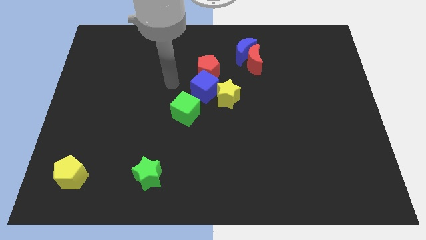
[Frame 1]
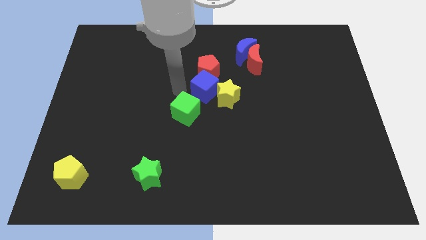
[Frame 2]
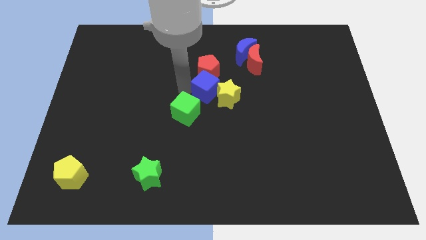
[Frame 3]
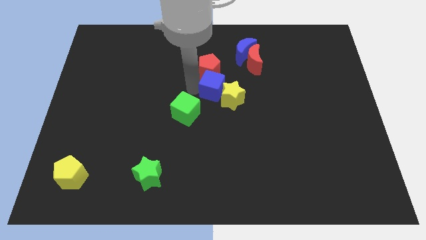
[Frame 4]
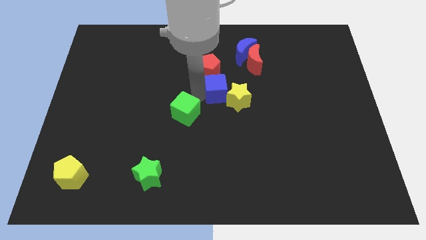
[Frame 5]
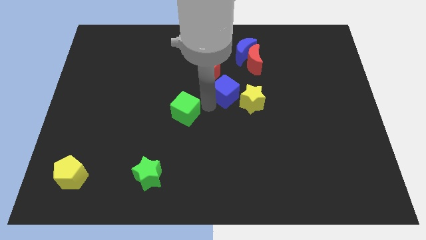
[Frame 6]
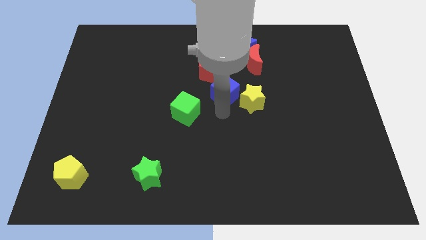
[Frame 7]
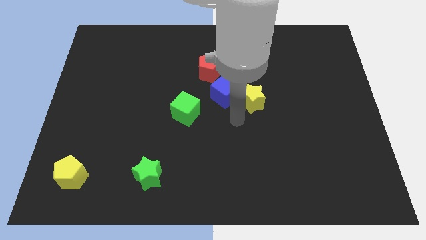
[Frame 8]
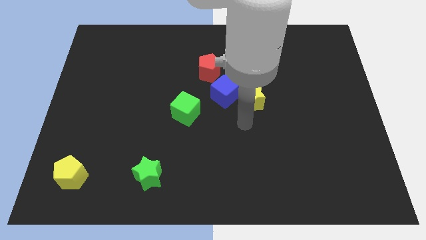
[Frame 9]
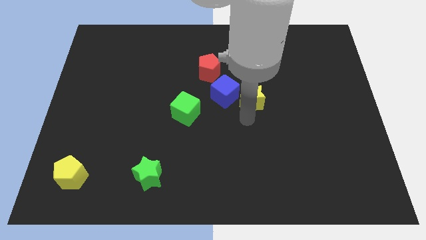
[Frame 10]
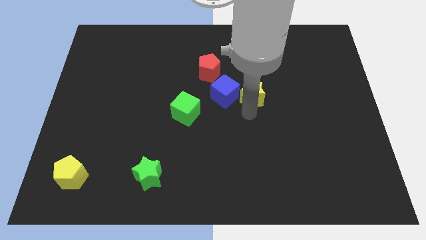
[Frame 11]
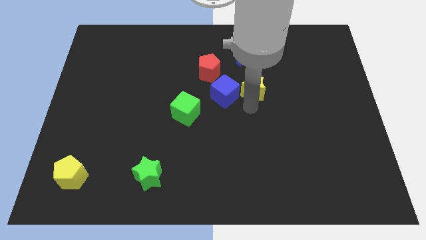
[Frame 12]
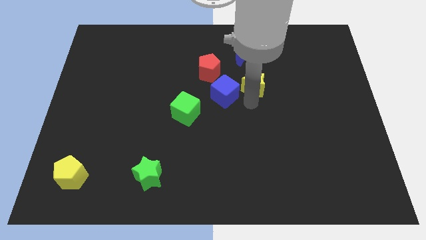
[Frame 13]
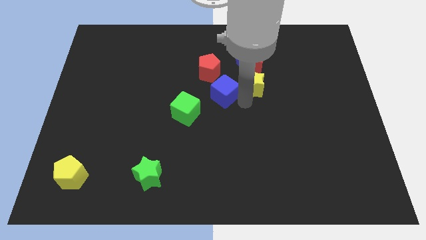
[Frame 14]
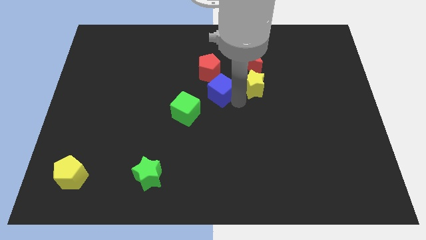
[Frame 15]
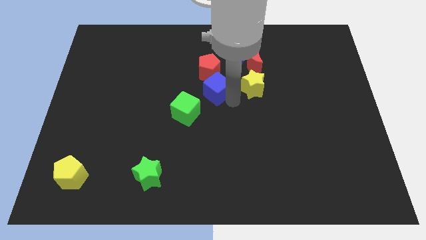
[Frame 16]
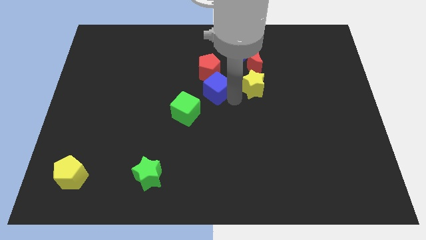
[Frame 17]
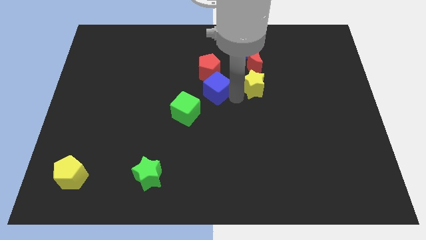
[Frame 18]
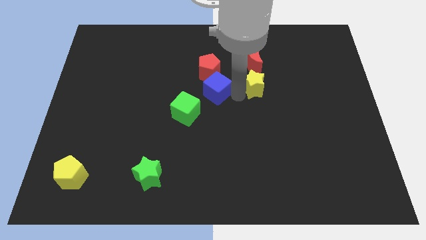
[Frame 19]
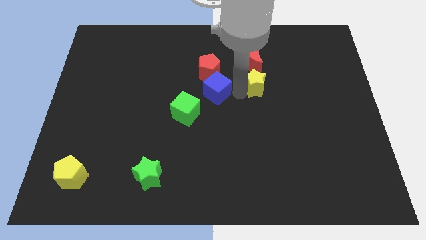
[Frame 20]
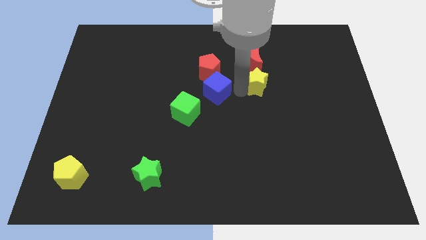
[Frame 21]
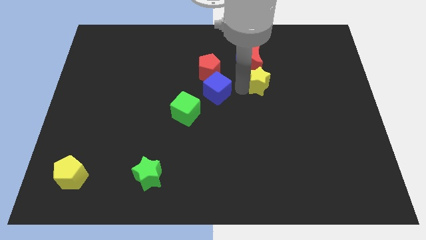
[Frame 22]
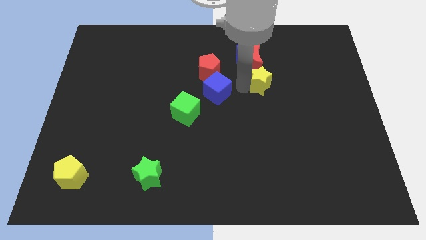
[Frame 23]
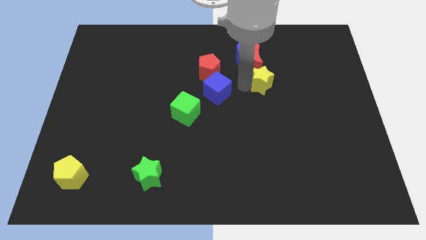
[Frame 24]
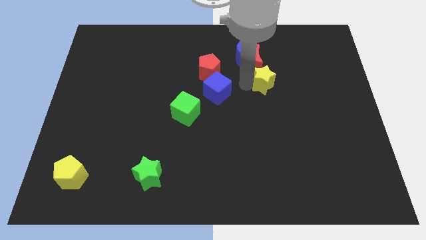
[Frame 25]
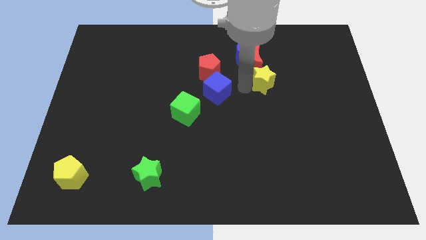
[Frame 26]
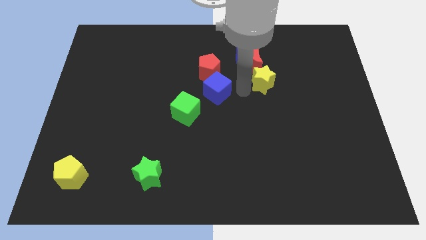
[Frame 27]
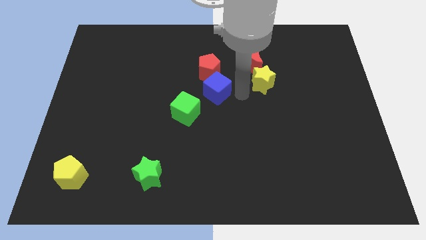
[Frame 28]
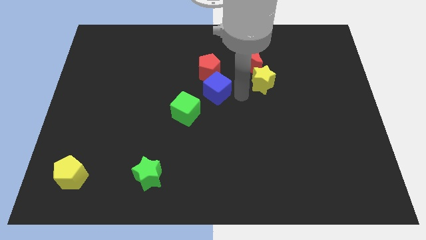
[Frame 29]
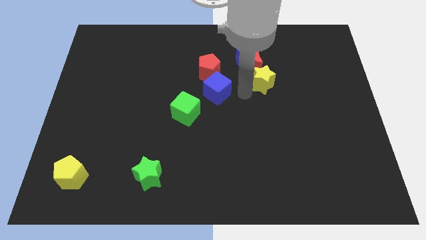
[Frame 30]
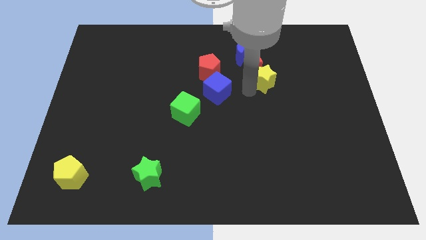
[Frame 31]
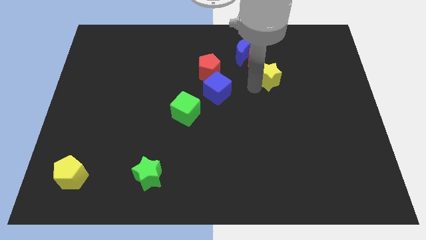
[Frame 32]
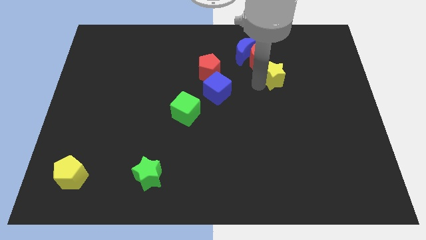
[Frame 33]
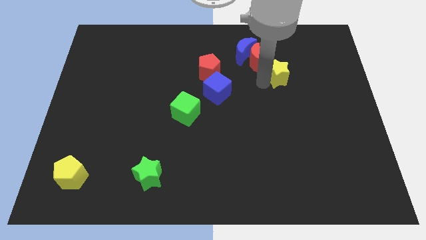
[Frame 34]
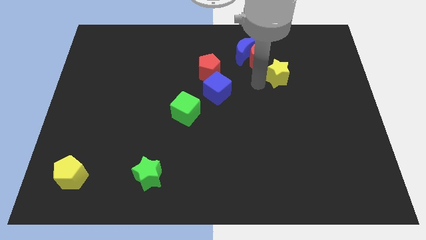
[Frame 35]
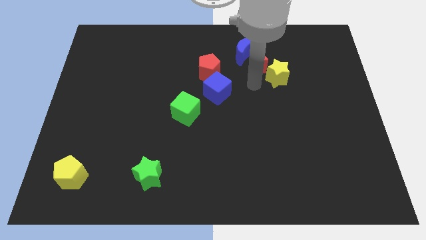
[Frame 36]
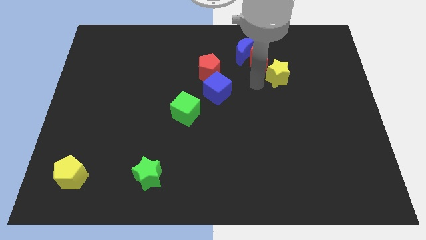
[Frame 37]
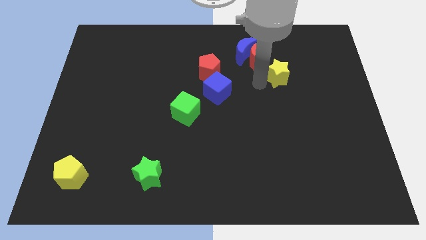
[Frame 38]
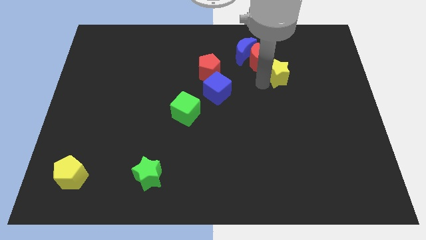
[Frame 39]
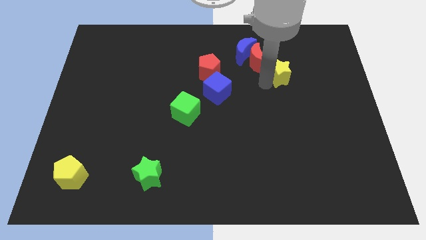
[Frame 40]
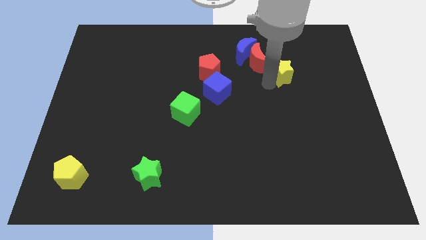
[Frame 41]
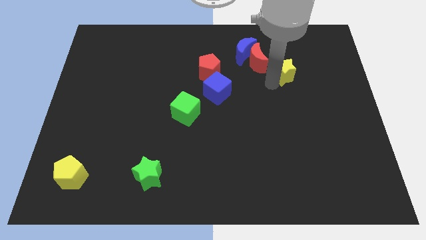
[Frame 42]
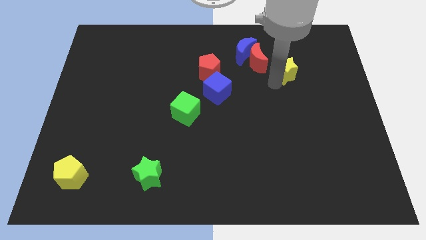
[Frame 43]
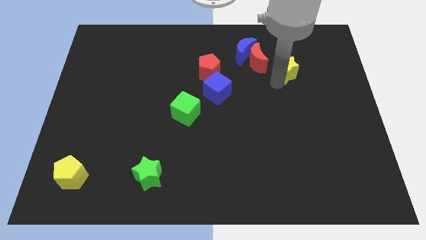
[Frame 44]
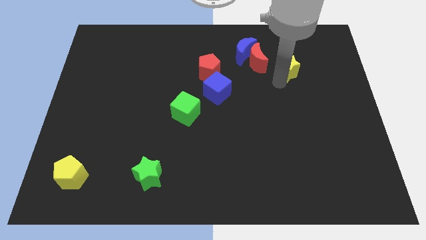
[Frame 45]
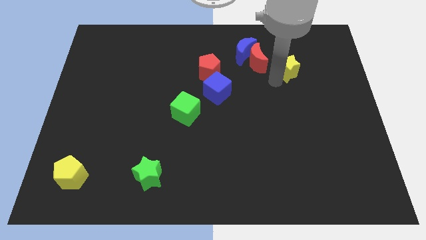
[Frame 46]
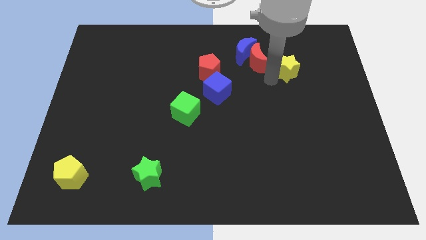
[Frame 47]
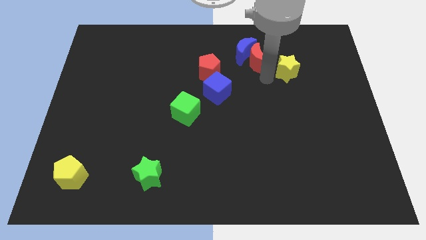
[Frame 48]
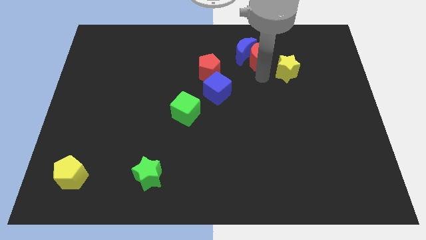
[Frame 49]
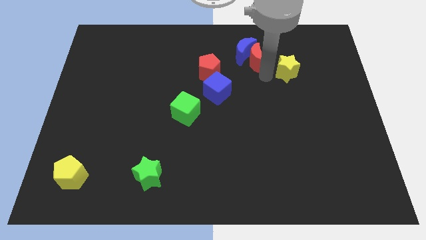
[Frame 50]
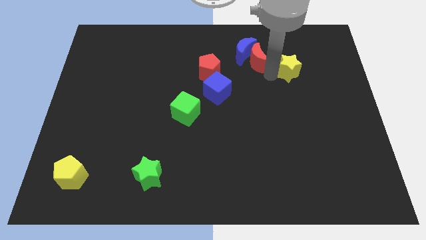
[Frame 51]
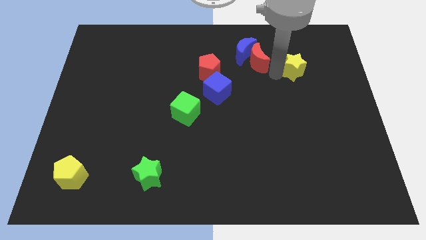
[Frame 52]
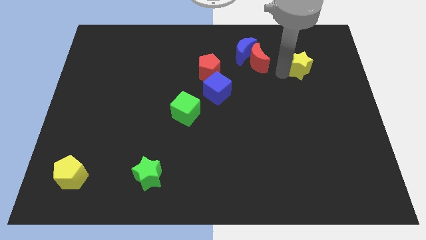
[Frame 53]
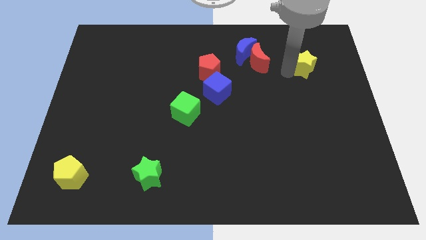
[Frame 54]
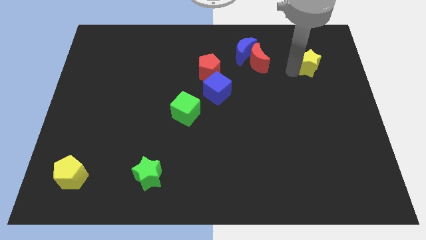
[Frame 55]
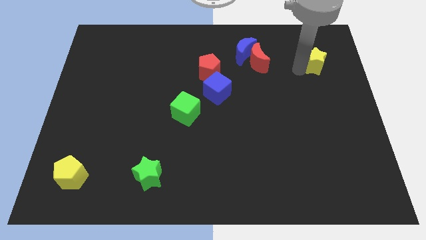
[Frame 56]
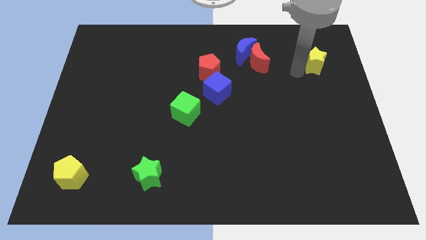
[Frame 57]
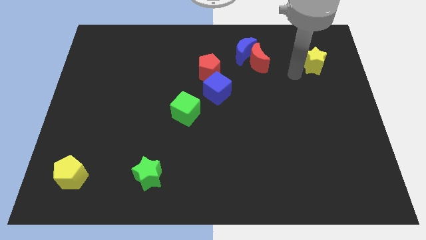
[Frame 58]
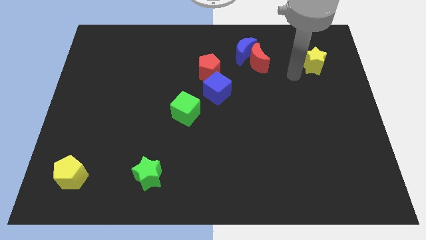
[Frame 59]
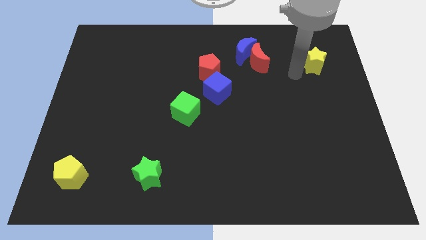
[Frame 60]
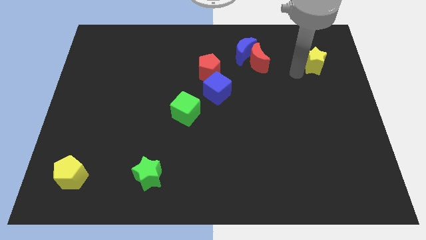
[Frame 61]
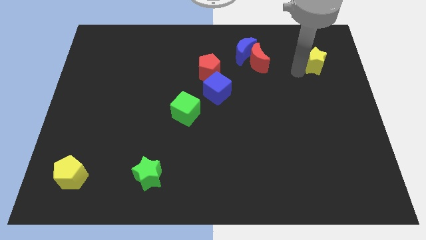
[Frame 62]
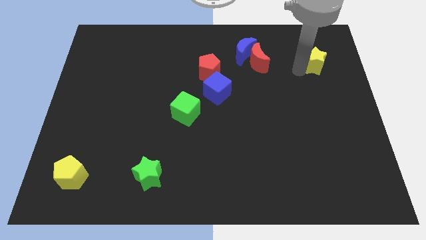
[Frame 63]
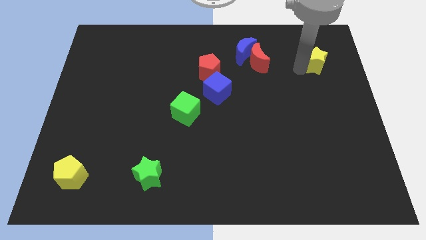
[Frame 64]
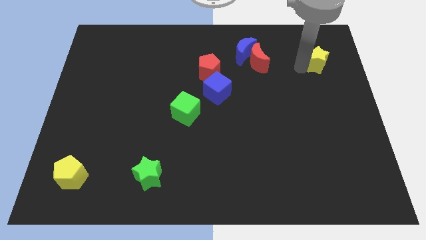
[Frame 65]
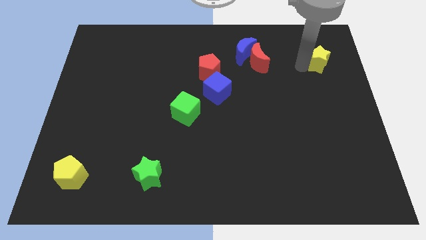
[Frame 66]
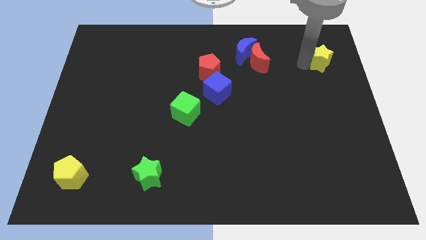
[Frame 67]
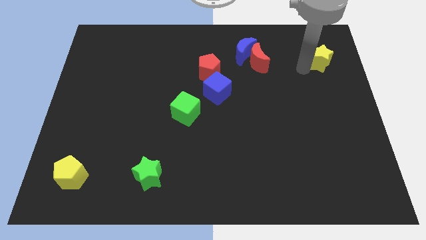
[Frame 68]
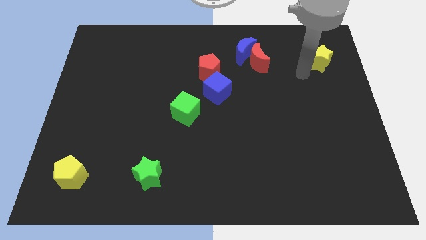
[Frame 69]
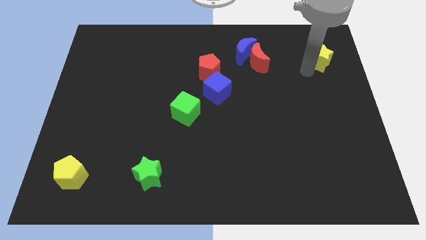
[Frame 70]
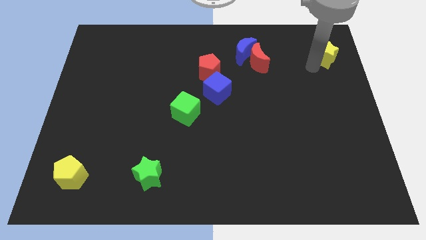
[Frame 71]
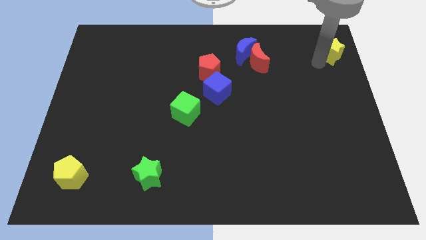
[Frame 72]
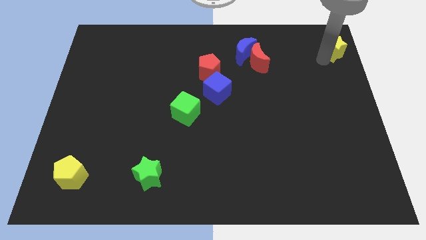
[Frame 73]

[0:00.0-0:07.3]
slide the yellow star to the top right of the board
